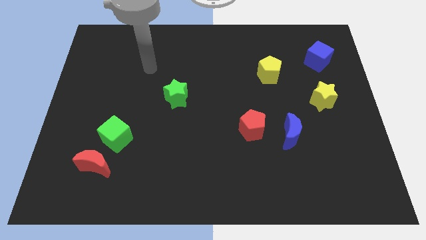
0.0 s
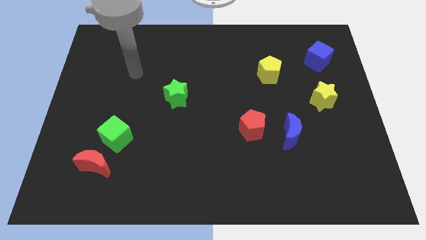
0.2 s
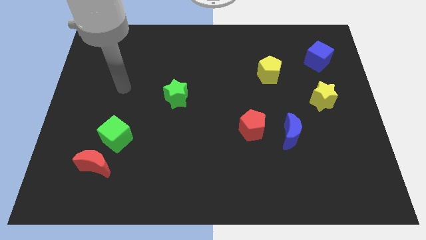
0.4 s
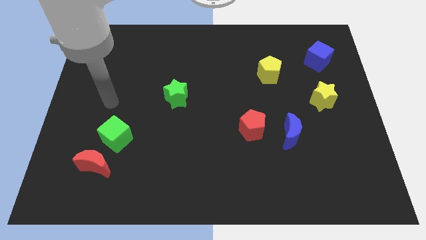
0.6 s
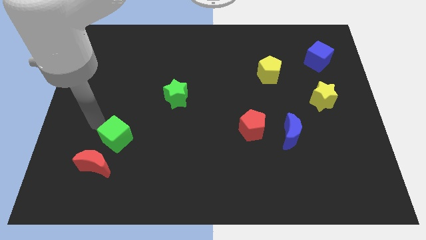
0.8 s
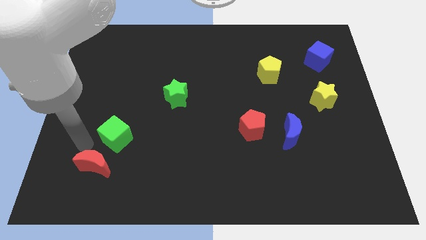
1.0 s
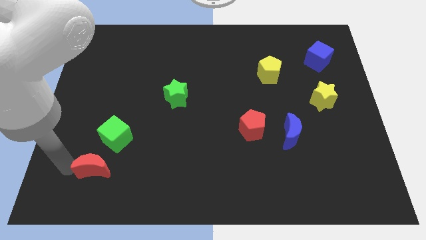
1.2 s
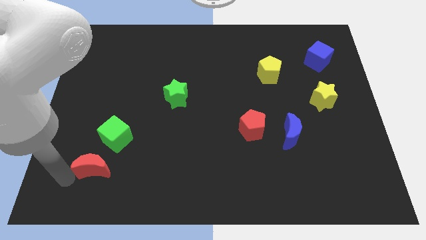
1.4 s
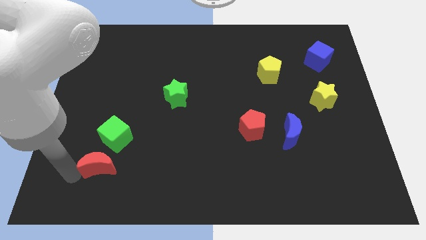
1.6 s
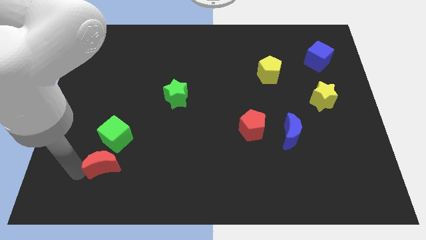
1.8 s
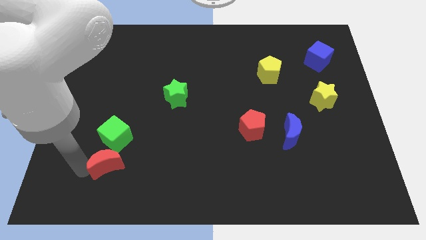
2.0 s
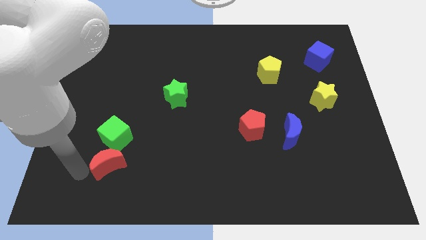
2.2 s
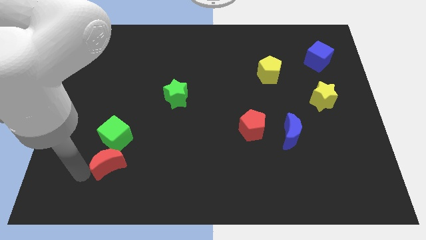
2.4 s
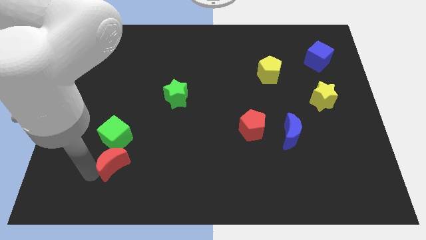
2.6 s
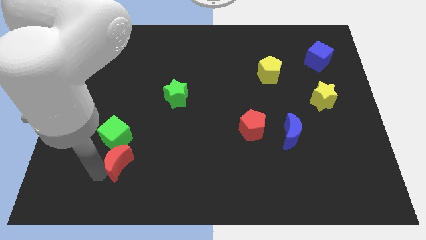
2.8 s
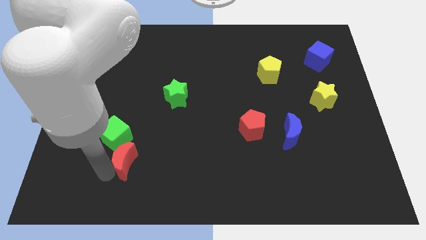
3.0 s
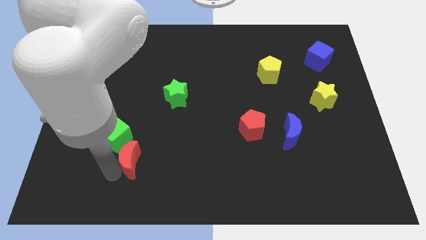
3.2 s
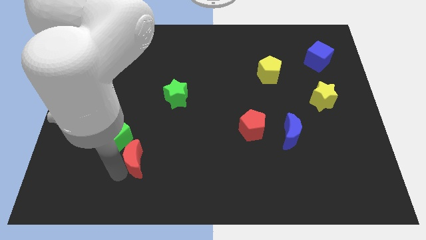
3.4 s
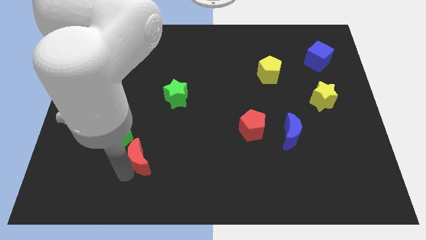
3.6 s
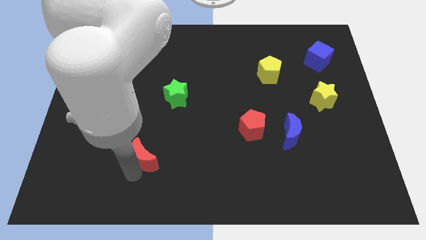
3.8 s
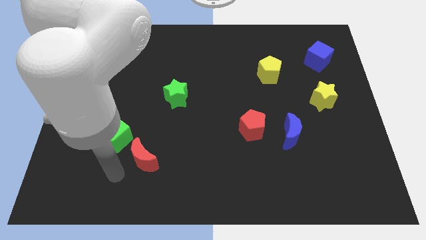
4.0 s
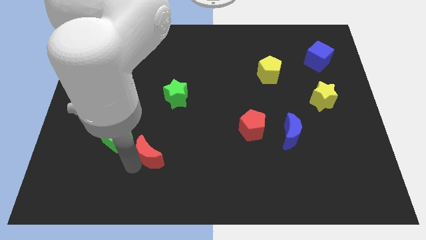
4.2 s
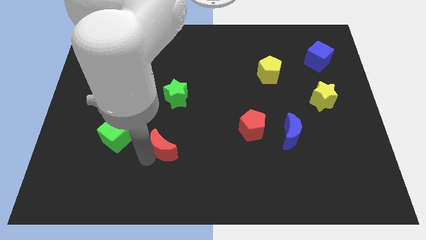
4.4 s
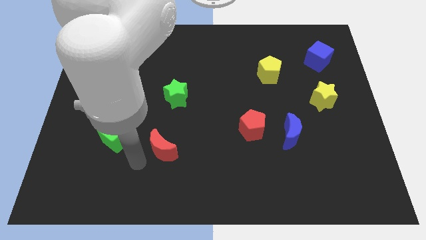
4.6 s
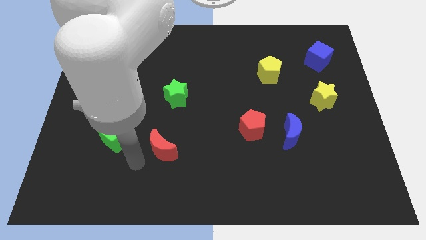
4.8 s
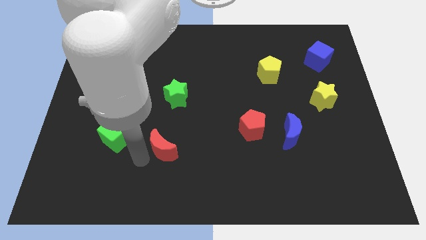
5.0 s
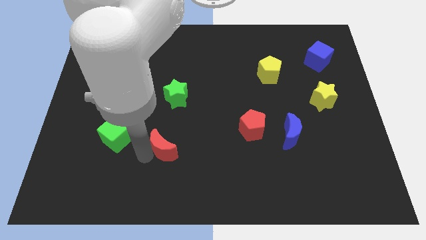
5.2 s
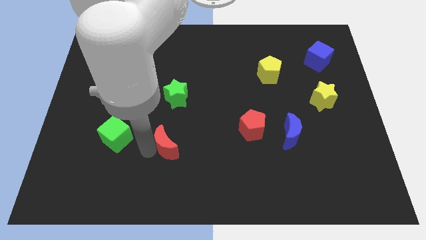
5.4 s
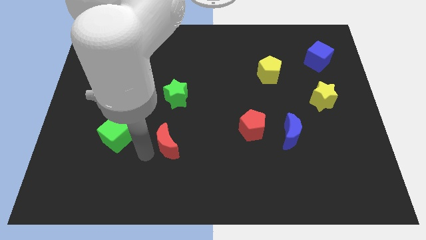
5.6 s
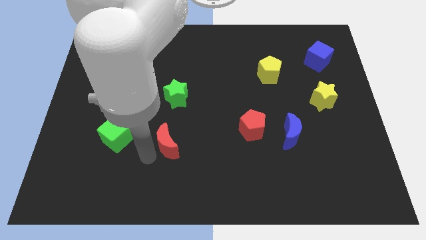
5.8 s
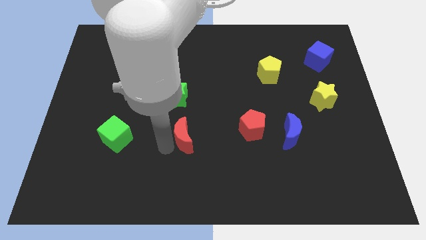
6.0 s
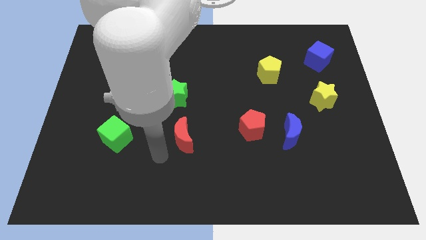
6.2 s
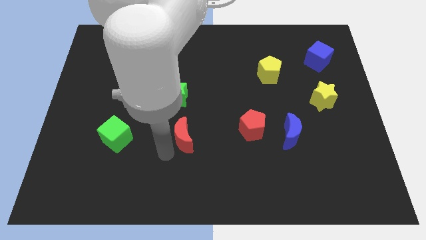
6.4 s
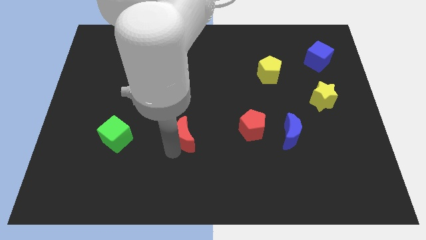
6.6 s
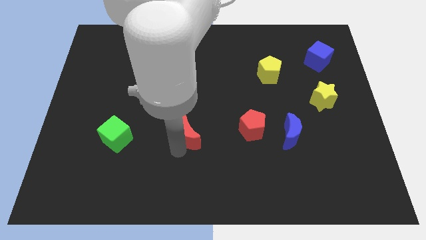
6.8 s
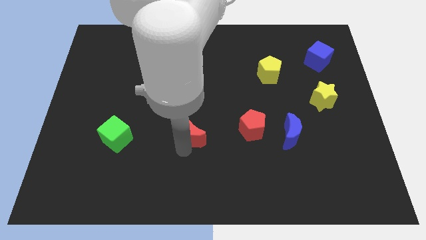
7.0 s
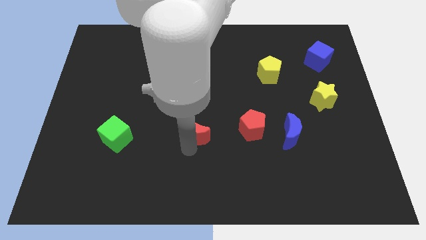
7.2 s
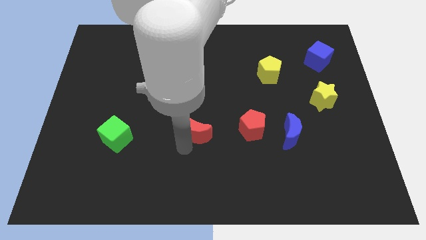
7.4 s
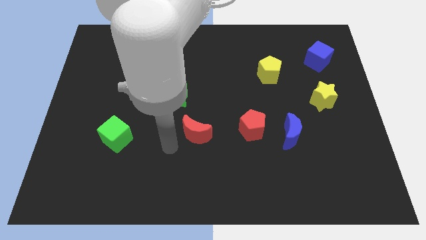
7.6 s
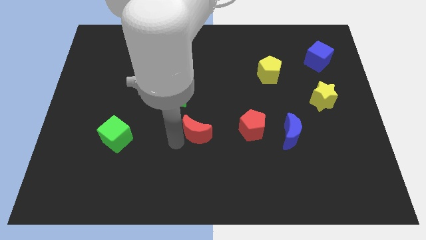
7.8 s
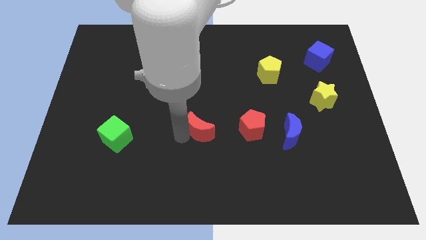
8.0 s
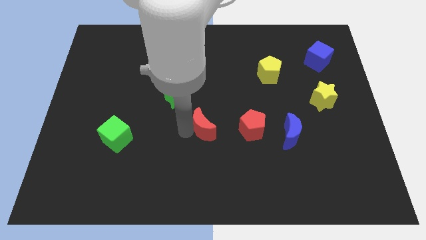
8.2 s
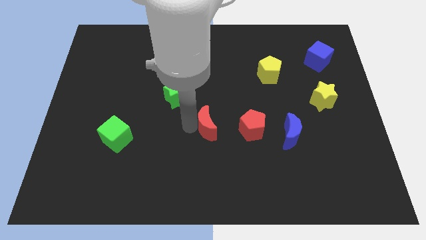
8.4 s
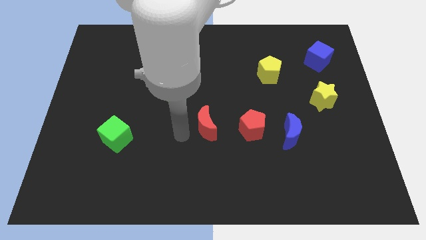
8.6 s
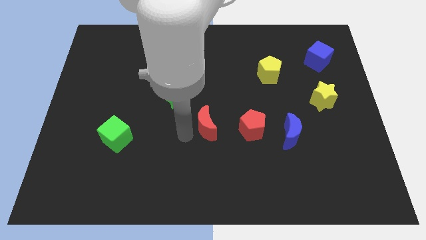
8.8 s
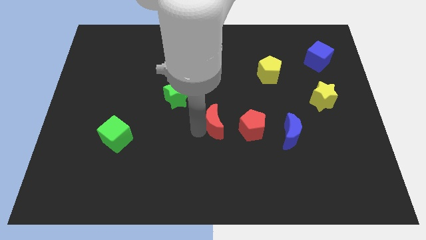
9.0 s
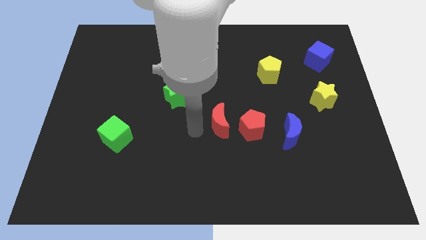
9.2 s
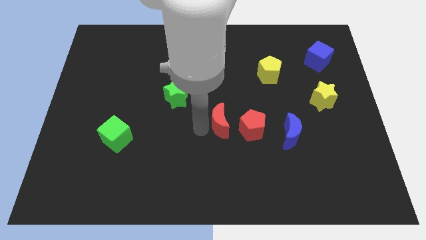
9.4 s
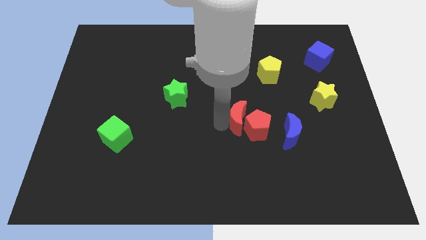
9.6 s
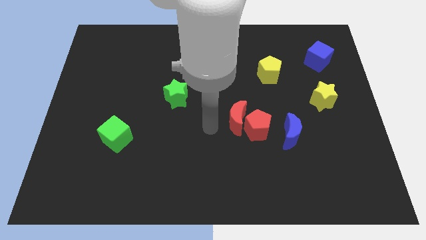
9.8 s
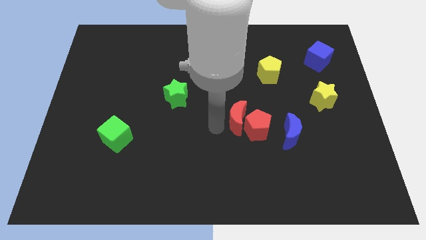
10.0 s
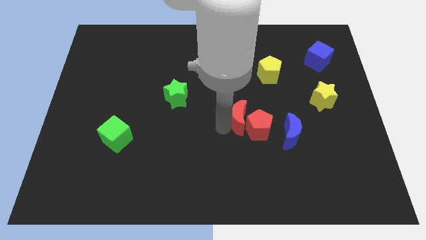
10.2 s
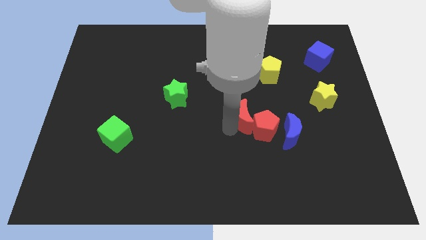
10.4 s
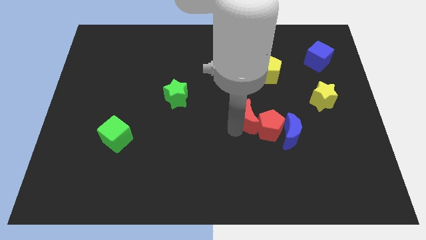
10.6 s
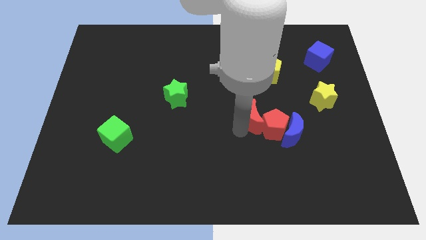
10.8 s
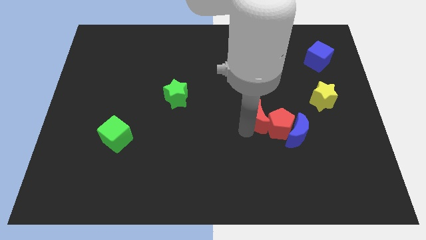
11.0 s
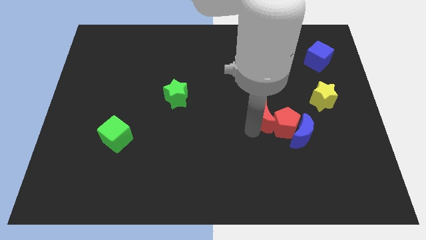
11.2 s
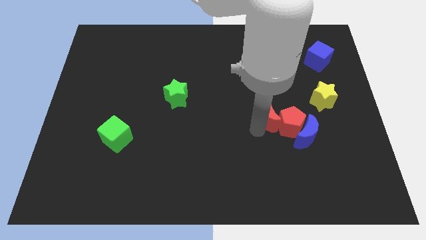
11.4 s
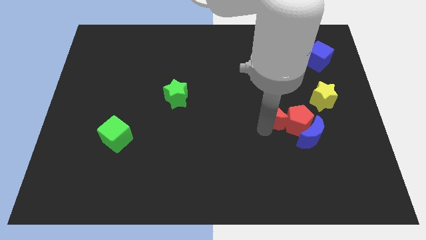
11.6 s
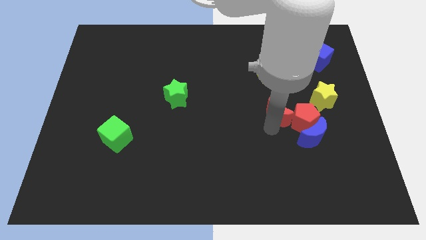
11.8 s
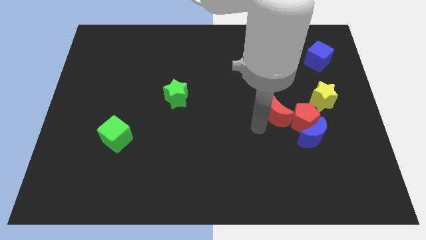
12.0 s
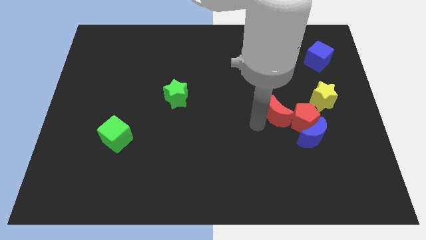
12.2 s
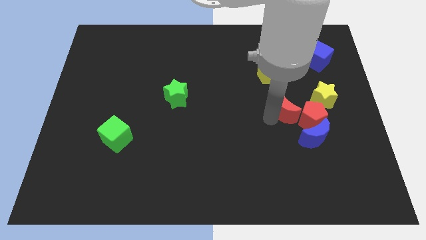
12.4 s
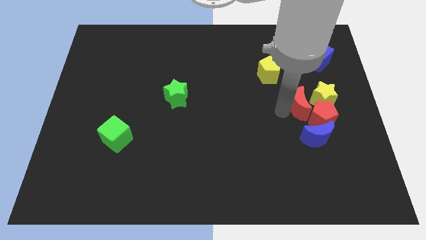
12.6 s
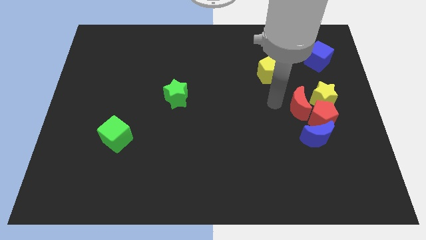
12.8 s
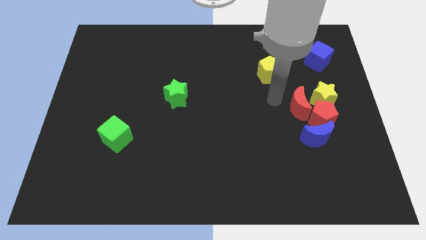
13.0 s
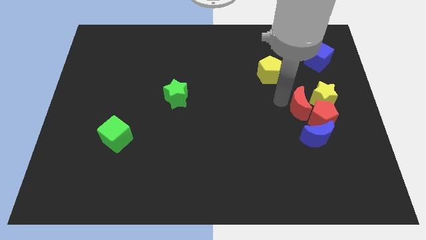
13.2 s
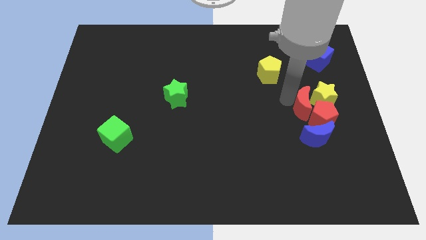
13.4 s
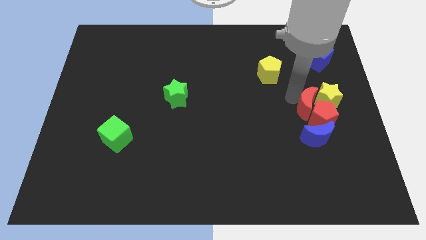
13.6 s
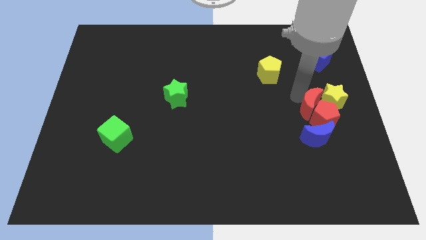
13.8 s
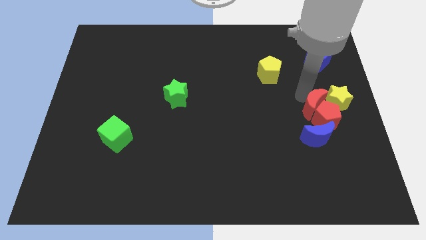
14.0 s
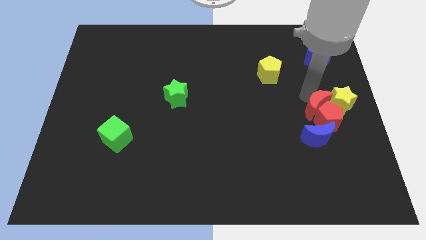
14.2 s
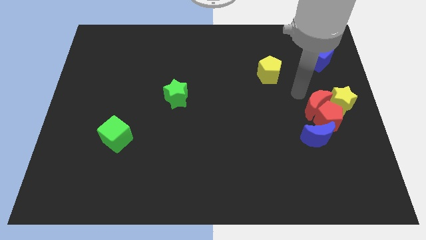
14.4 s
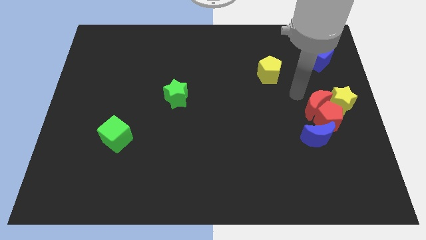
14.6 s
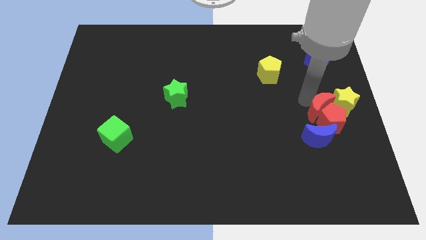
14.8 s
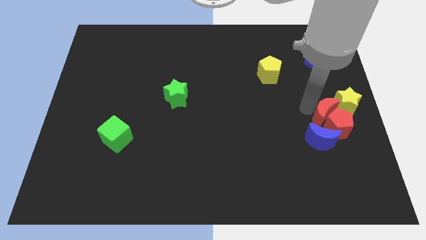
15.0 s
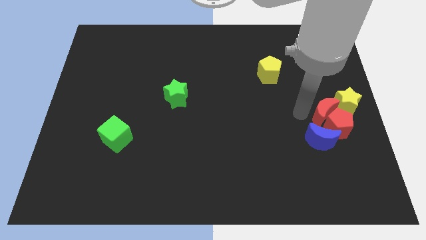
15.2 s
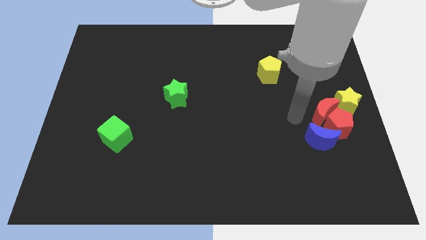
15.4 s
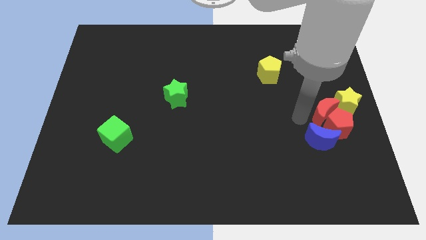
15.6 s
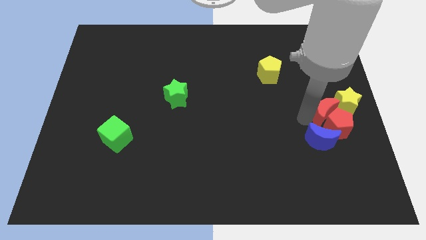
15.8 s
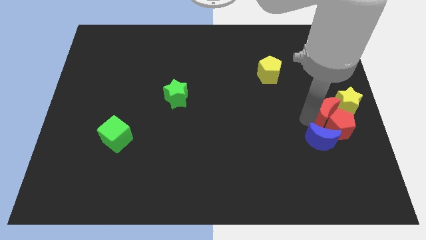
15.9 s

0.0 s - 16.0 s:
put the red moon to the right side
